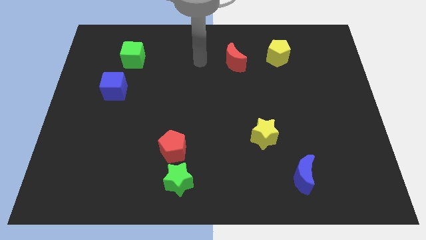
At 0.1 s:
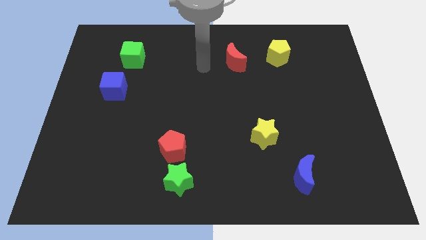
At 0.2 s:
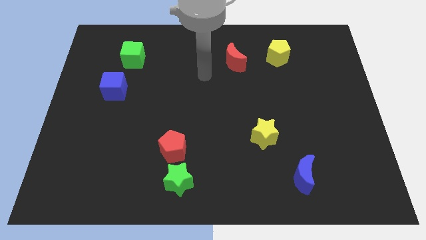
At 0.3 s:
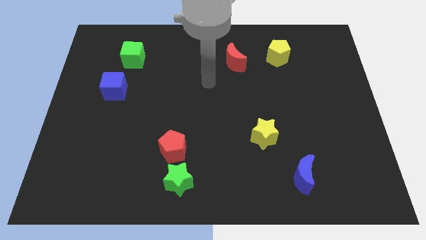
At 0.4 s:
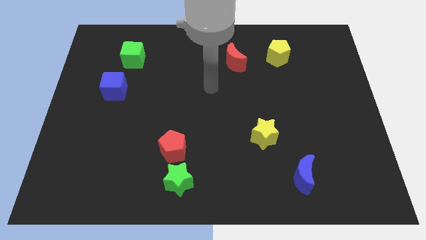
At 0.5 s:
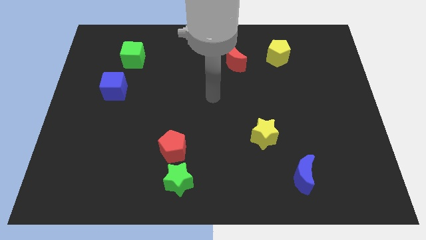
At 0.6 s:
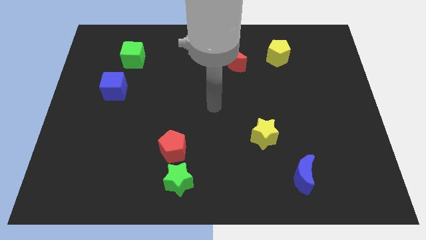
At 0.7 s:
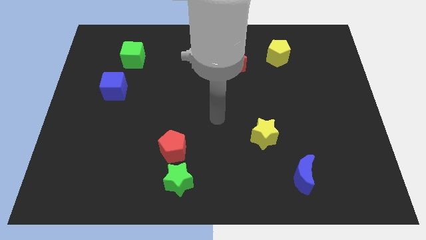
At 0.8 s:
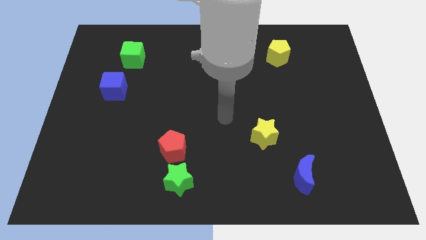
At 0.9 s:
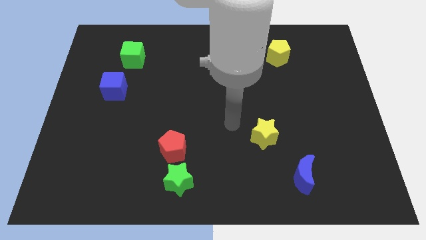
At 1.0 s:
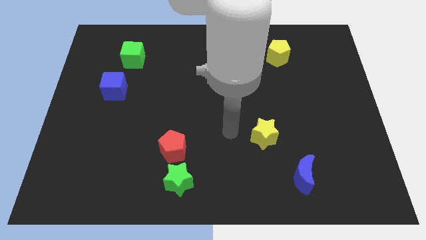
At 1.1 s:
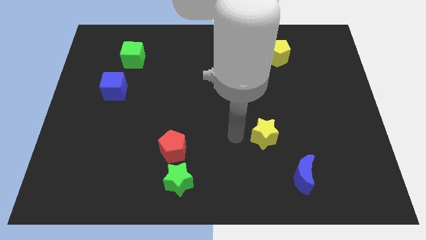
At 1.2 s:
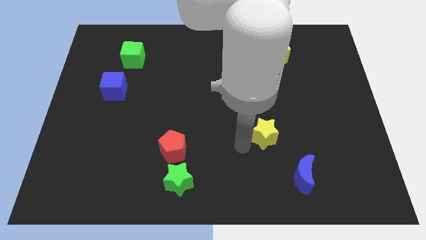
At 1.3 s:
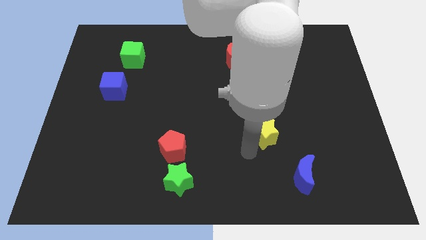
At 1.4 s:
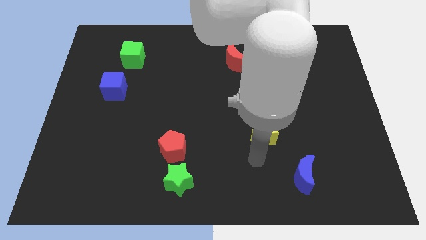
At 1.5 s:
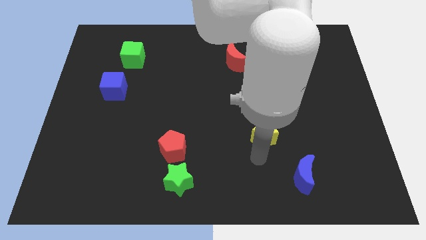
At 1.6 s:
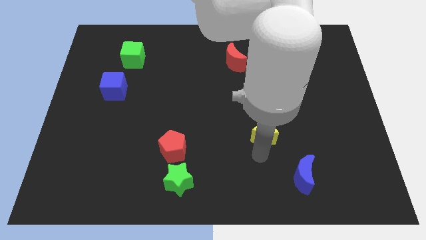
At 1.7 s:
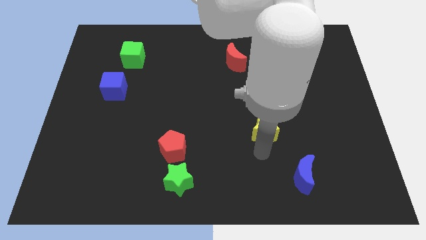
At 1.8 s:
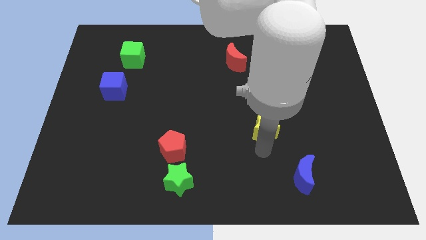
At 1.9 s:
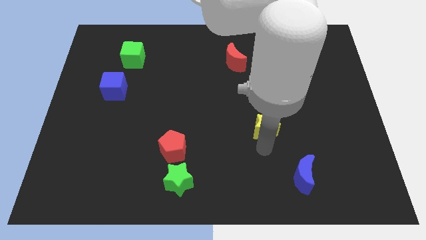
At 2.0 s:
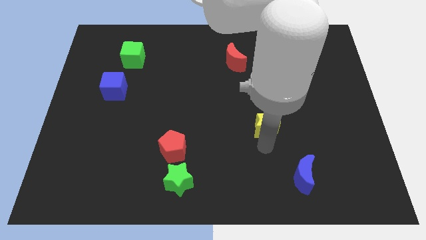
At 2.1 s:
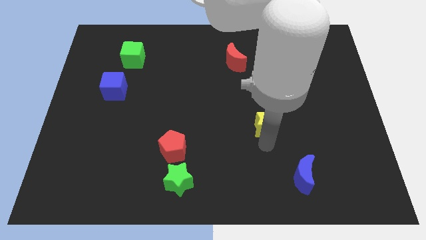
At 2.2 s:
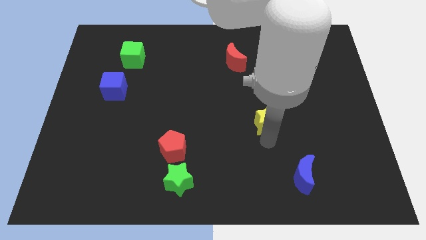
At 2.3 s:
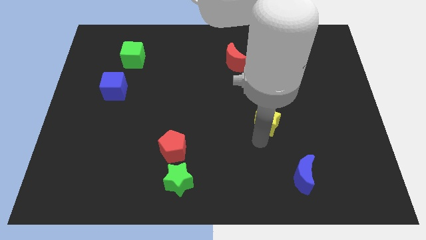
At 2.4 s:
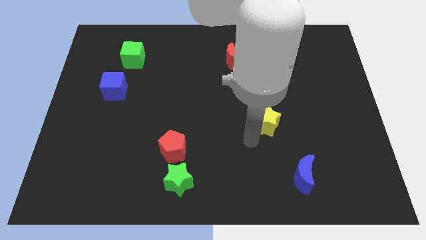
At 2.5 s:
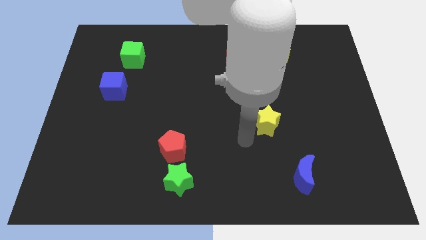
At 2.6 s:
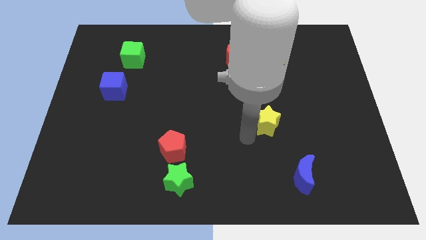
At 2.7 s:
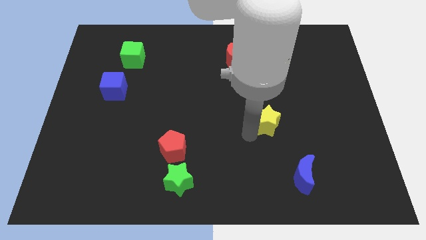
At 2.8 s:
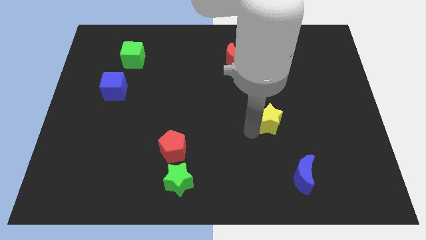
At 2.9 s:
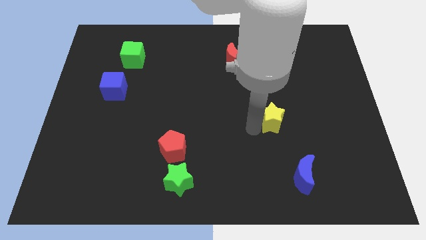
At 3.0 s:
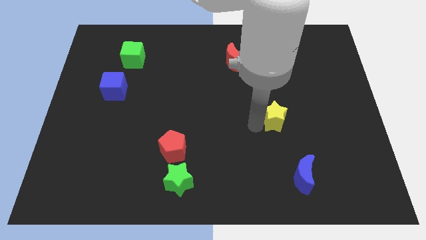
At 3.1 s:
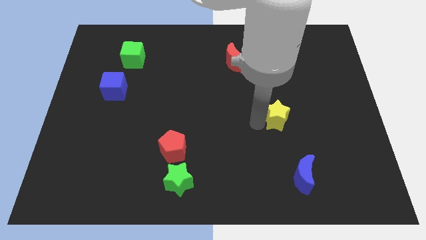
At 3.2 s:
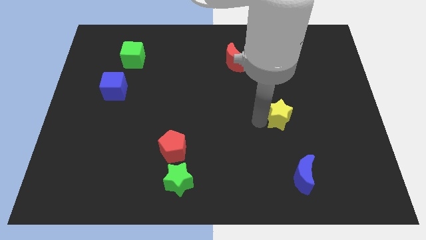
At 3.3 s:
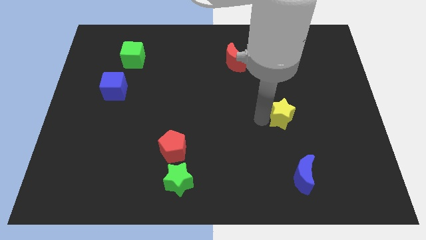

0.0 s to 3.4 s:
push the yellow star upwards and to the right slightly

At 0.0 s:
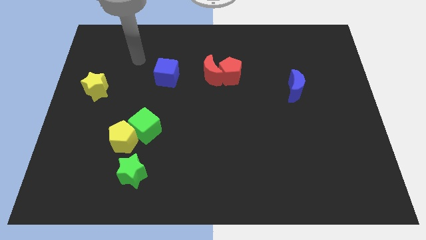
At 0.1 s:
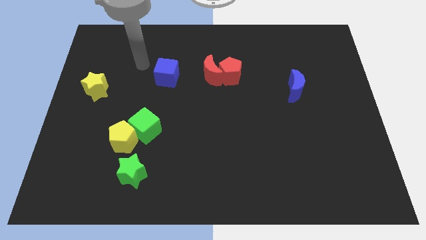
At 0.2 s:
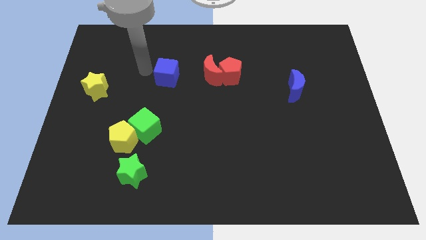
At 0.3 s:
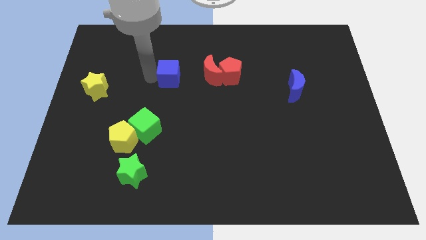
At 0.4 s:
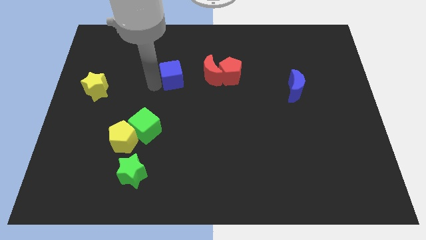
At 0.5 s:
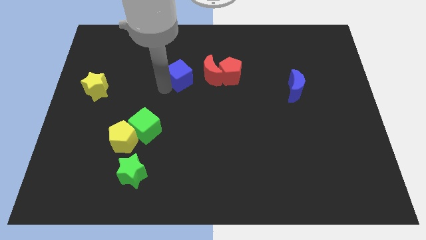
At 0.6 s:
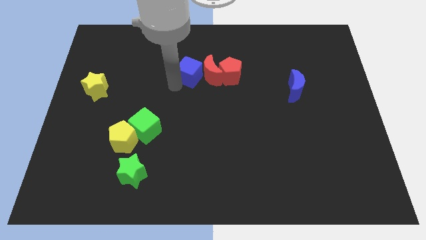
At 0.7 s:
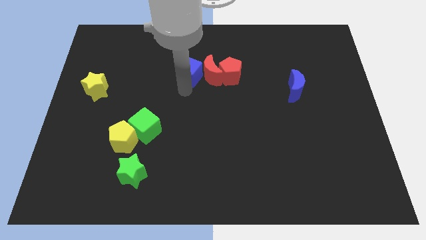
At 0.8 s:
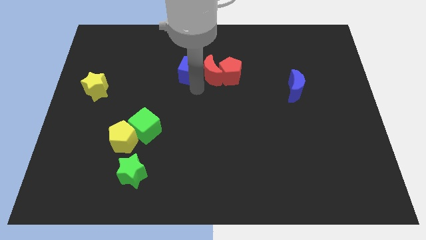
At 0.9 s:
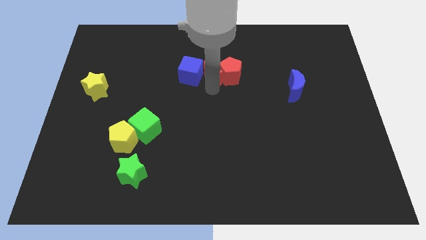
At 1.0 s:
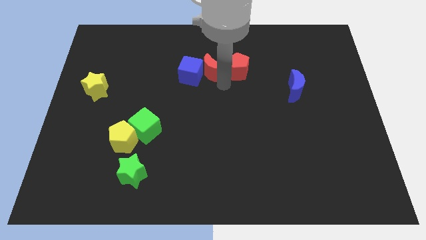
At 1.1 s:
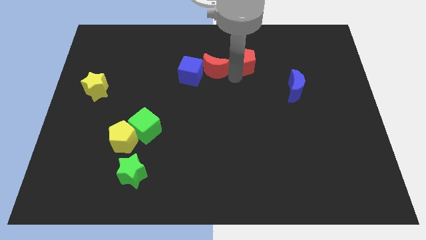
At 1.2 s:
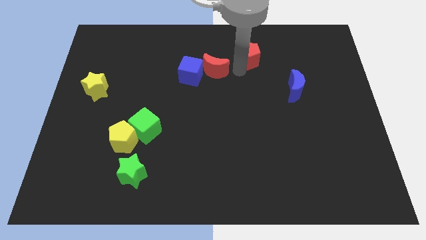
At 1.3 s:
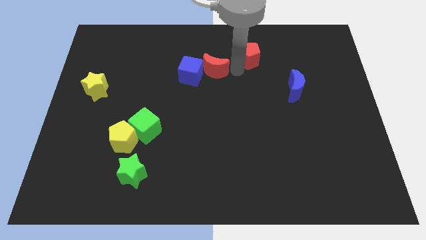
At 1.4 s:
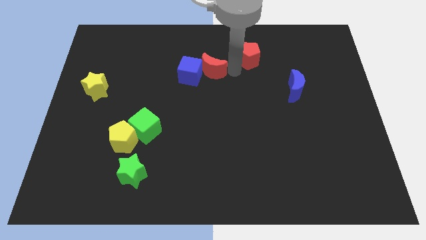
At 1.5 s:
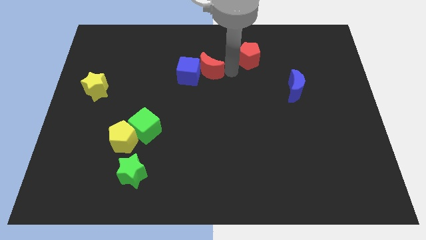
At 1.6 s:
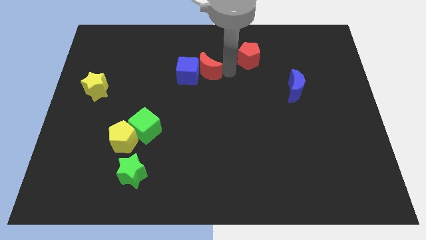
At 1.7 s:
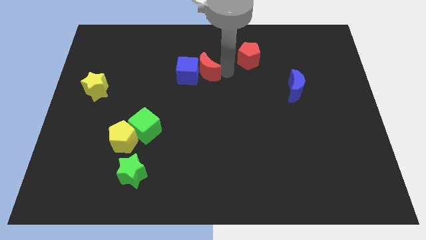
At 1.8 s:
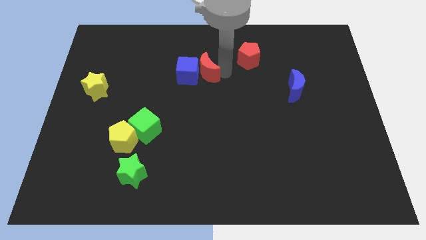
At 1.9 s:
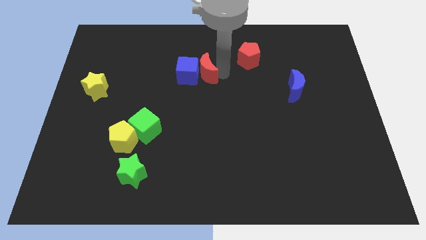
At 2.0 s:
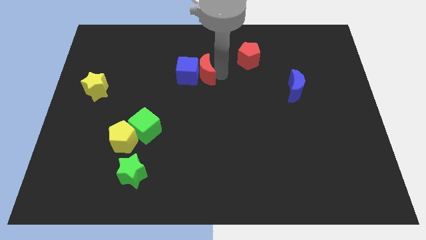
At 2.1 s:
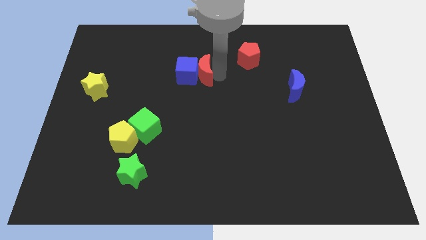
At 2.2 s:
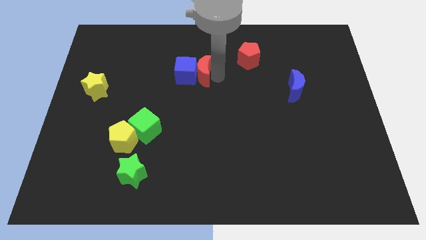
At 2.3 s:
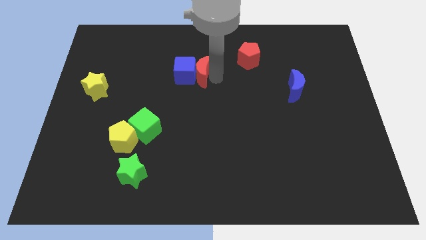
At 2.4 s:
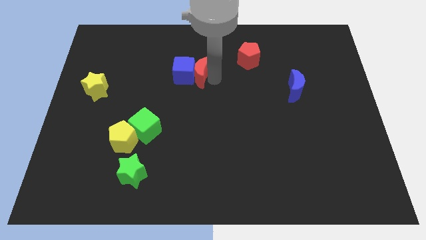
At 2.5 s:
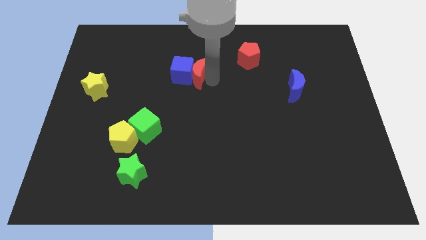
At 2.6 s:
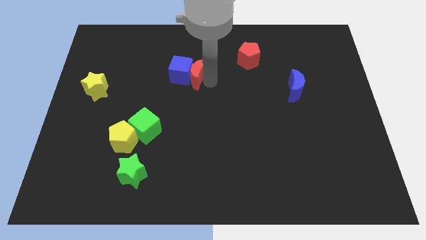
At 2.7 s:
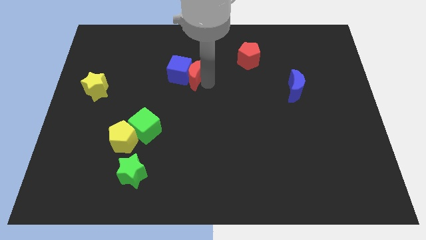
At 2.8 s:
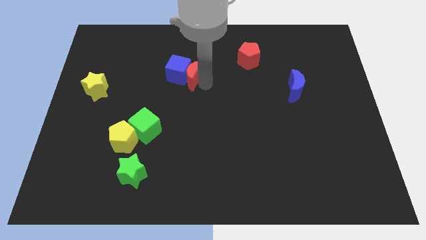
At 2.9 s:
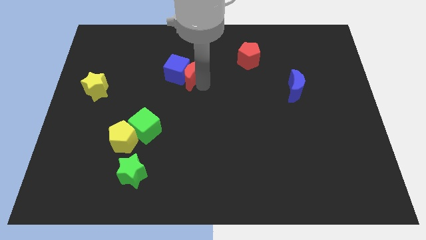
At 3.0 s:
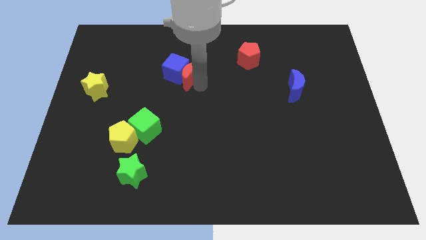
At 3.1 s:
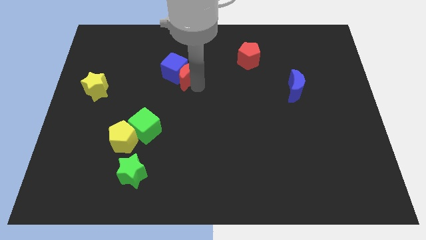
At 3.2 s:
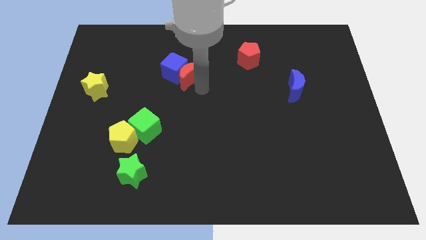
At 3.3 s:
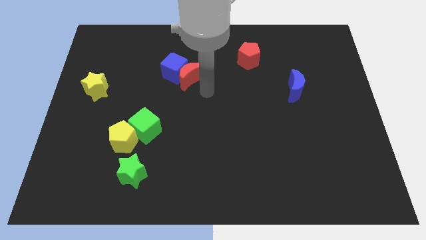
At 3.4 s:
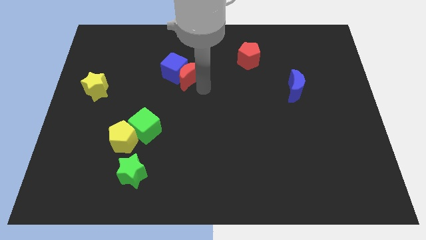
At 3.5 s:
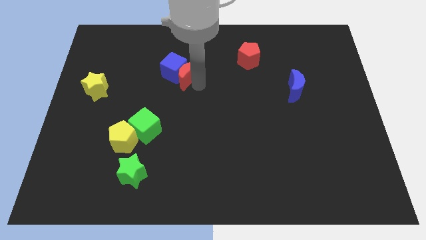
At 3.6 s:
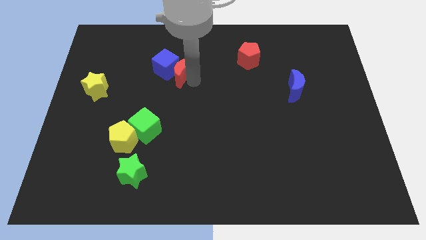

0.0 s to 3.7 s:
slightly push the red moon left

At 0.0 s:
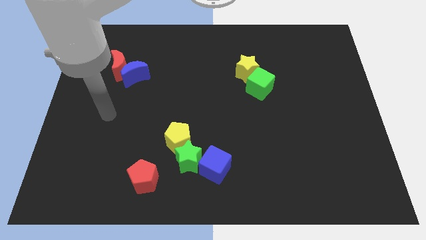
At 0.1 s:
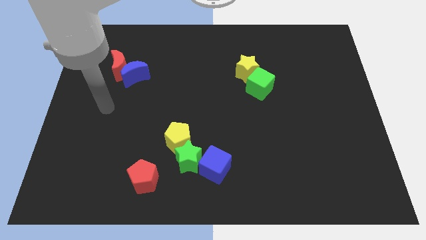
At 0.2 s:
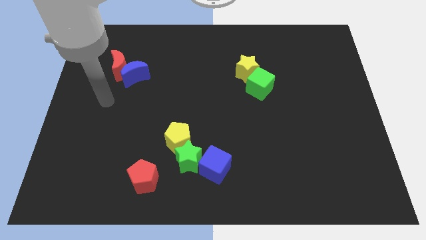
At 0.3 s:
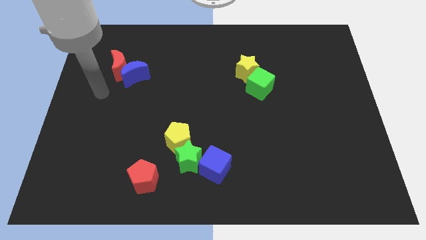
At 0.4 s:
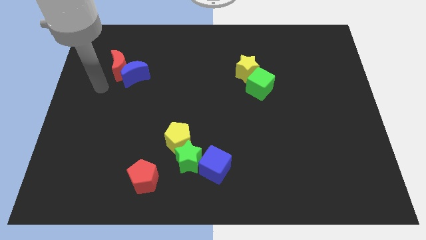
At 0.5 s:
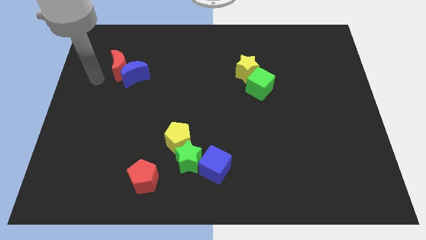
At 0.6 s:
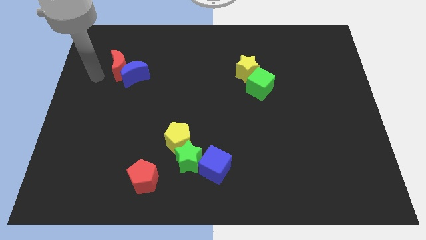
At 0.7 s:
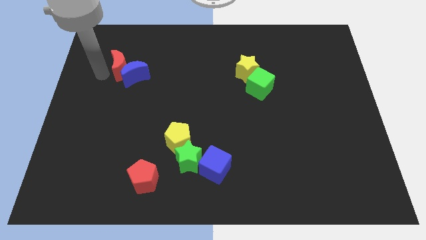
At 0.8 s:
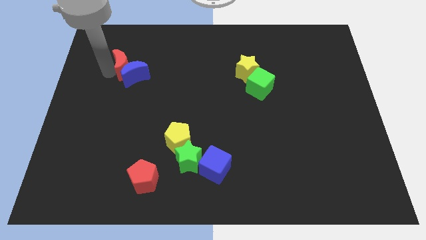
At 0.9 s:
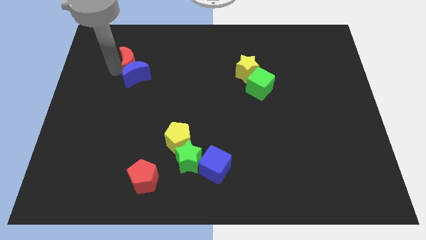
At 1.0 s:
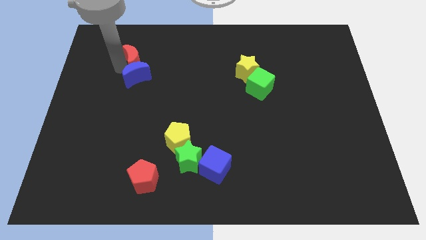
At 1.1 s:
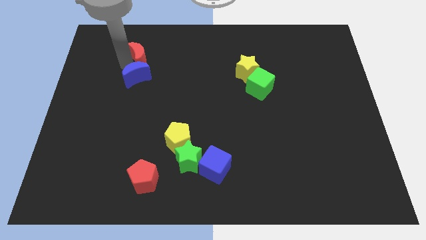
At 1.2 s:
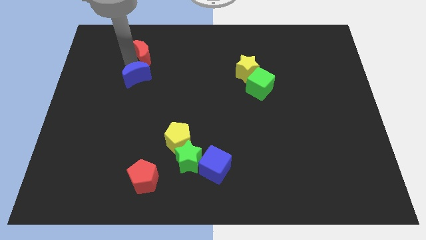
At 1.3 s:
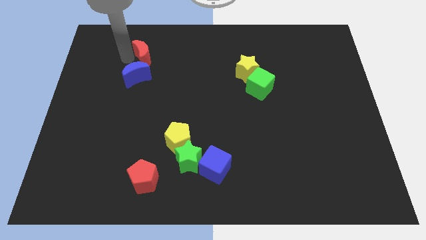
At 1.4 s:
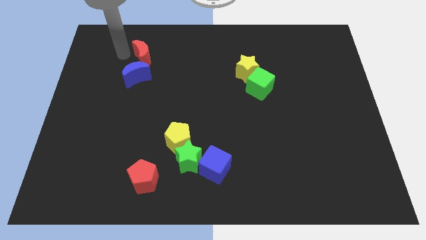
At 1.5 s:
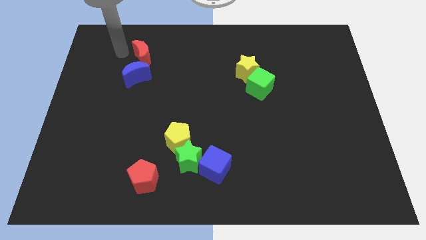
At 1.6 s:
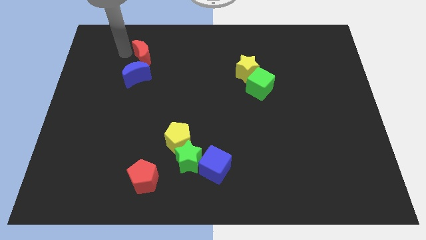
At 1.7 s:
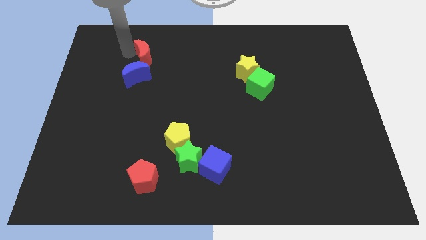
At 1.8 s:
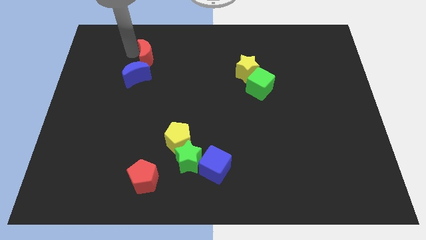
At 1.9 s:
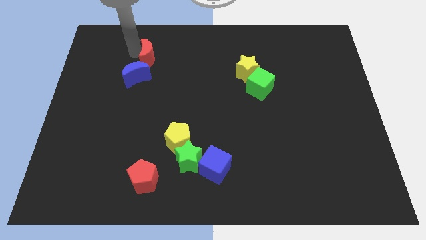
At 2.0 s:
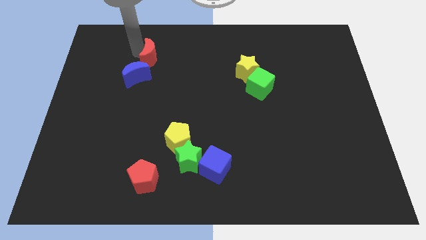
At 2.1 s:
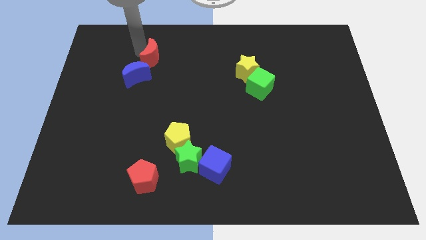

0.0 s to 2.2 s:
push the red moon to the right somewhat
